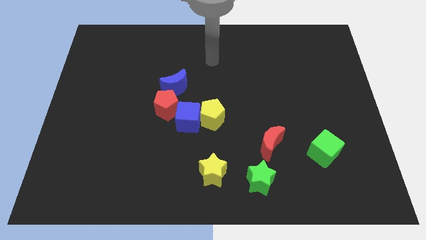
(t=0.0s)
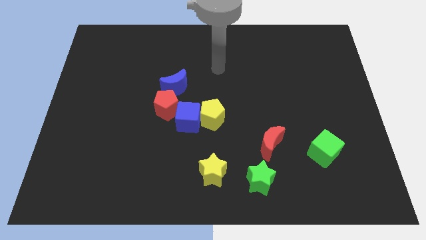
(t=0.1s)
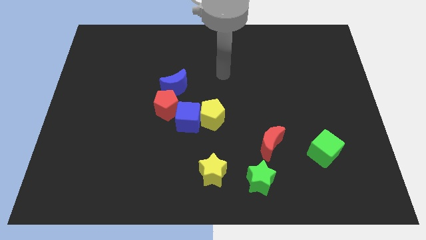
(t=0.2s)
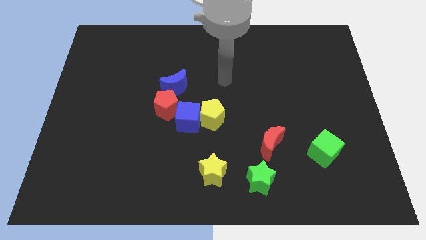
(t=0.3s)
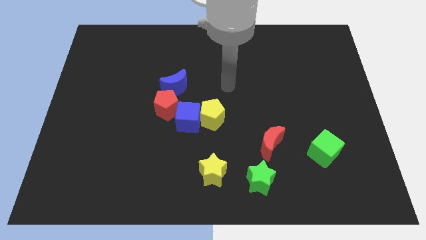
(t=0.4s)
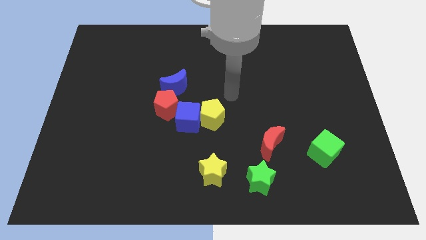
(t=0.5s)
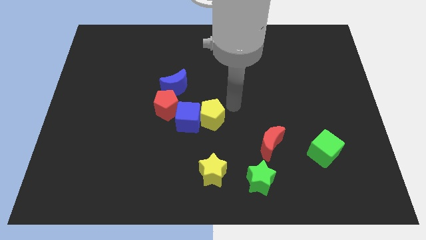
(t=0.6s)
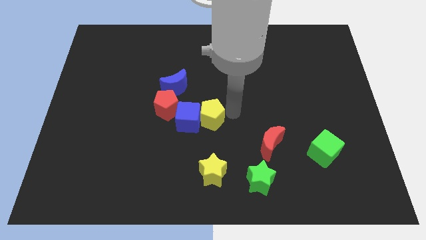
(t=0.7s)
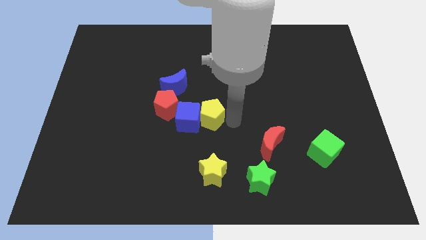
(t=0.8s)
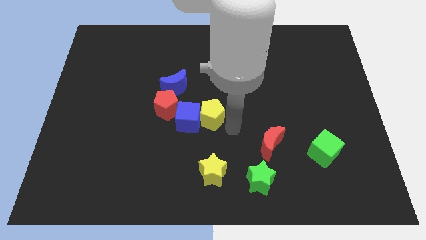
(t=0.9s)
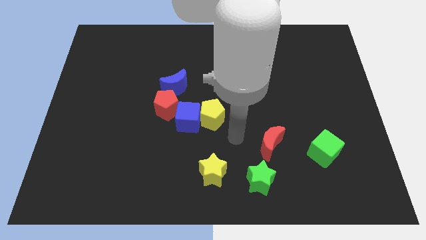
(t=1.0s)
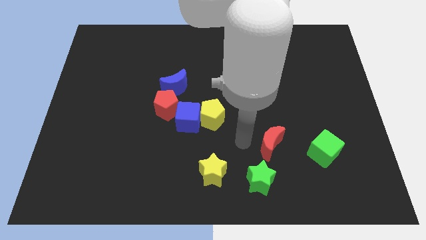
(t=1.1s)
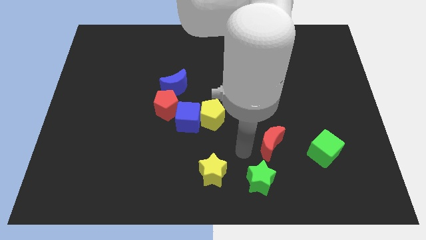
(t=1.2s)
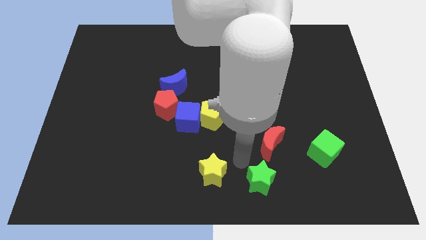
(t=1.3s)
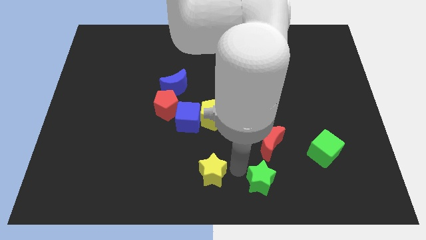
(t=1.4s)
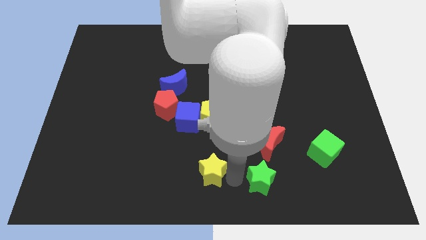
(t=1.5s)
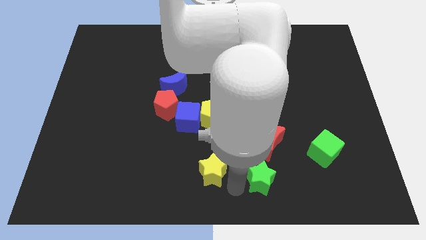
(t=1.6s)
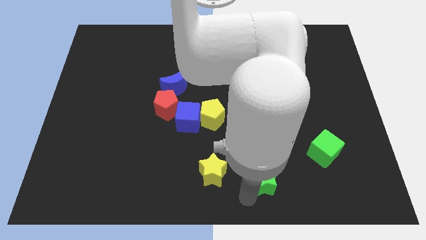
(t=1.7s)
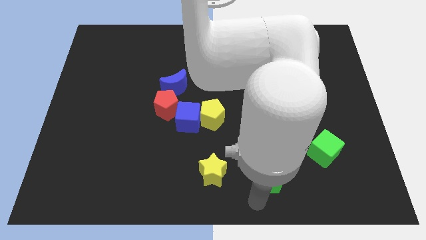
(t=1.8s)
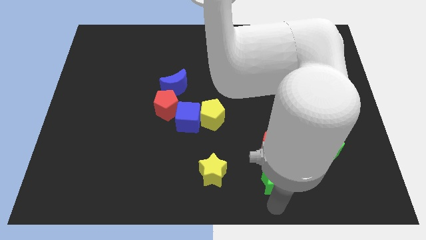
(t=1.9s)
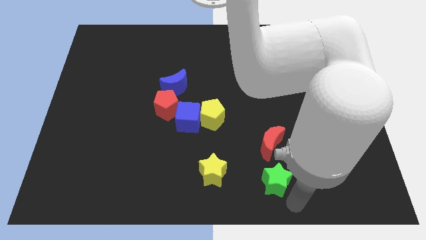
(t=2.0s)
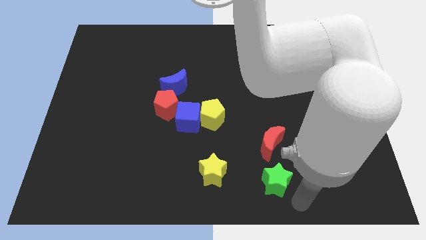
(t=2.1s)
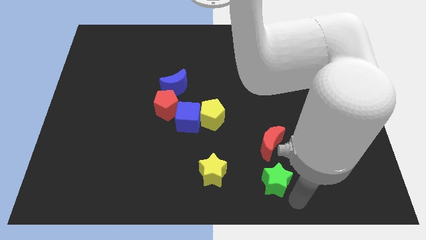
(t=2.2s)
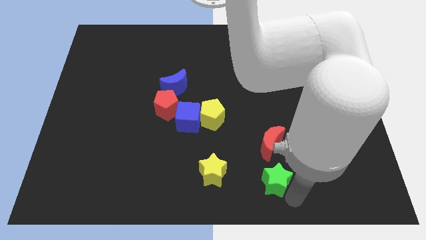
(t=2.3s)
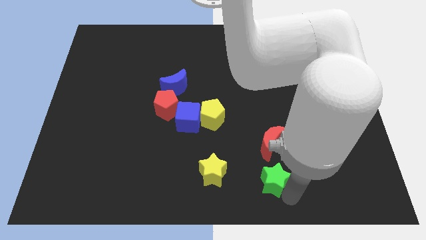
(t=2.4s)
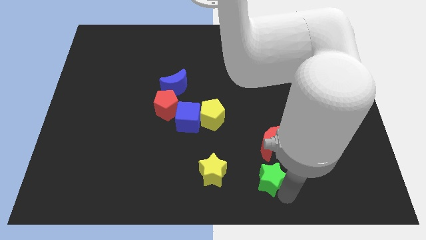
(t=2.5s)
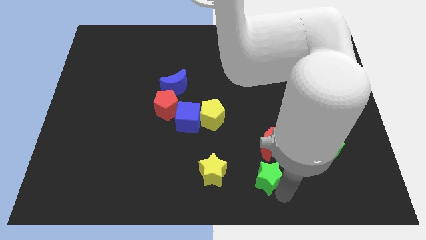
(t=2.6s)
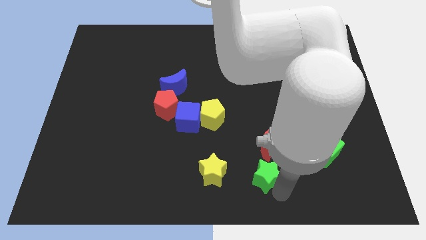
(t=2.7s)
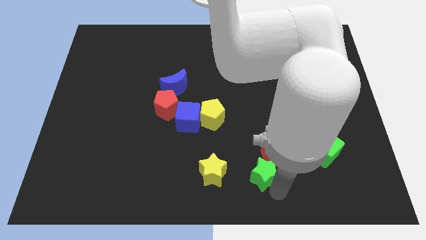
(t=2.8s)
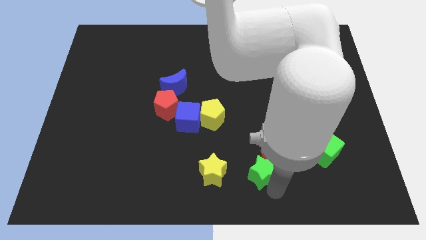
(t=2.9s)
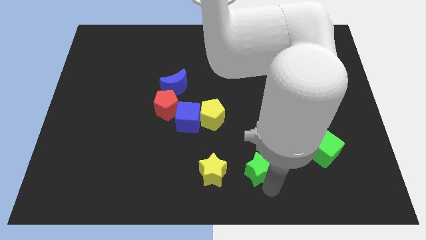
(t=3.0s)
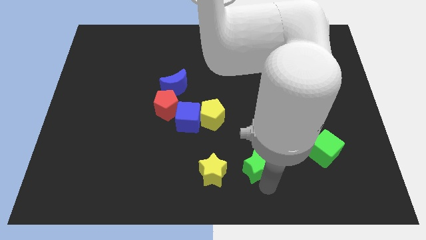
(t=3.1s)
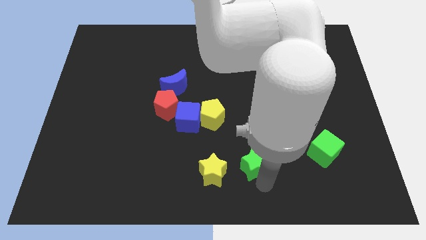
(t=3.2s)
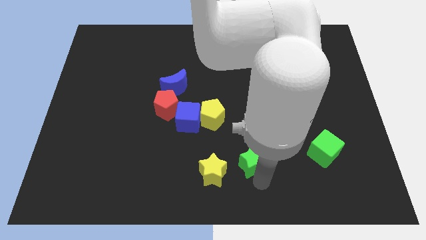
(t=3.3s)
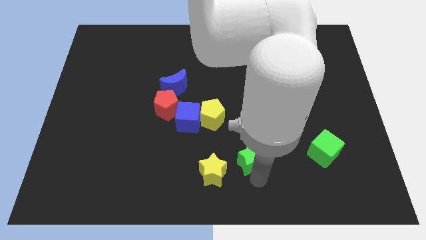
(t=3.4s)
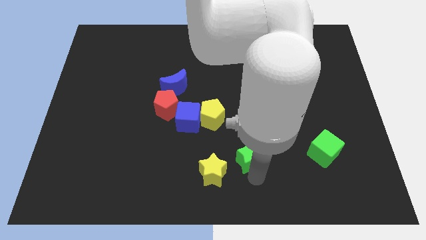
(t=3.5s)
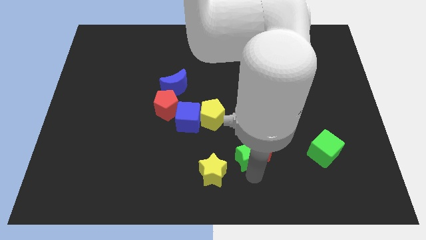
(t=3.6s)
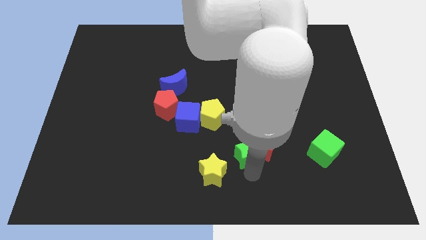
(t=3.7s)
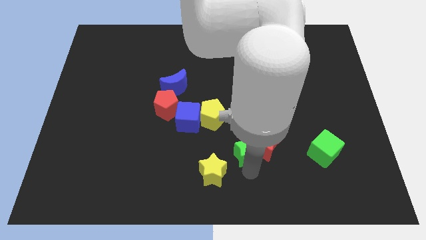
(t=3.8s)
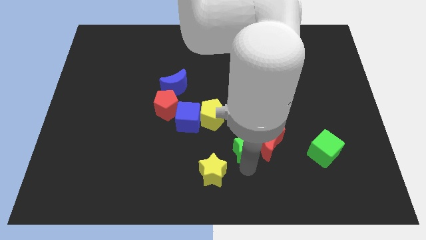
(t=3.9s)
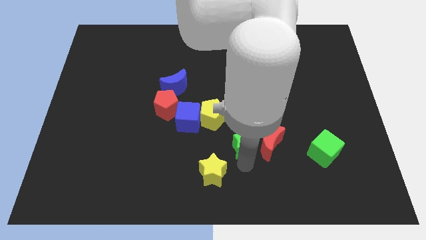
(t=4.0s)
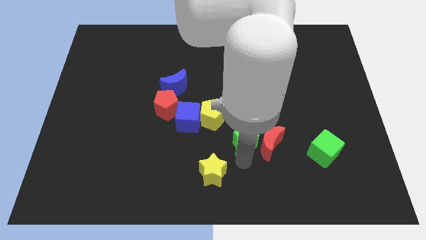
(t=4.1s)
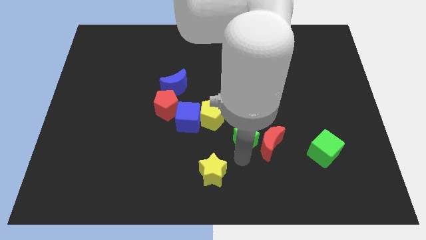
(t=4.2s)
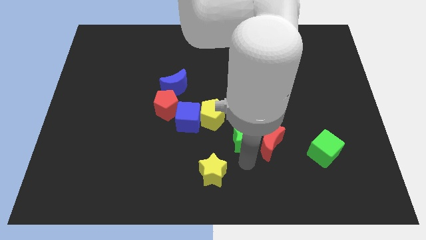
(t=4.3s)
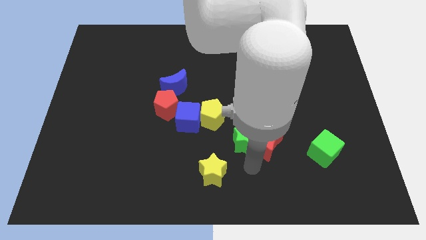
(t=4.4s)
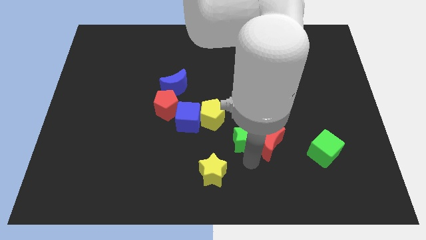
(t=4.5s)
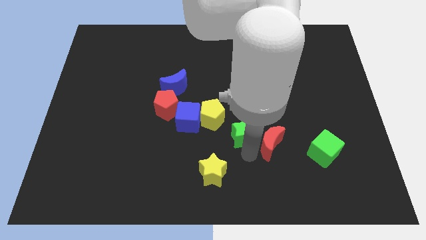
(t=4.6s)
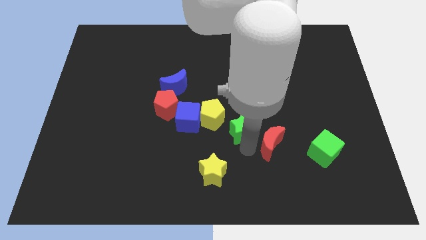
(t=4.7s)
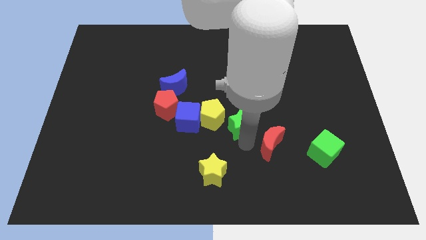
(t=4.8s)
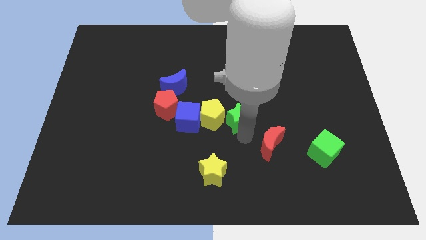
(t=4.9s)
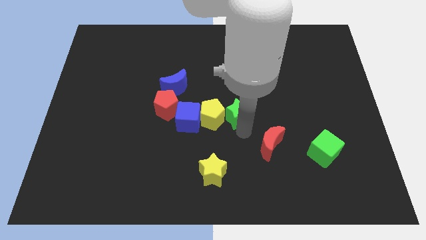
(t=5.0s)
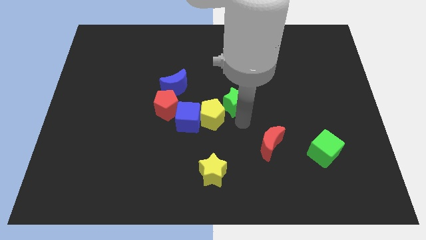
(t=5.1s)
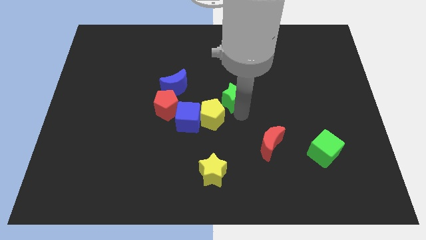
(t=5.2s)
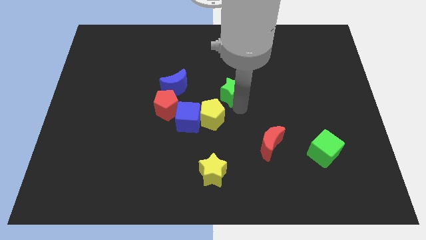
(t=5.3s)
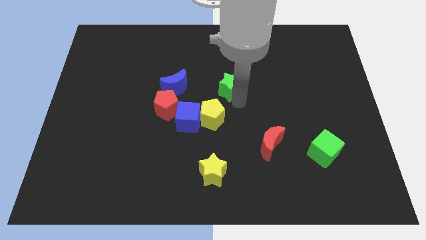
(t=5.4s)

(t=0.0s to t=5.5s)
slide the green star to the top side of the yellow pentagon

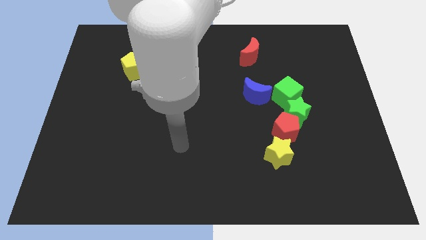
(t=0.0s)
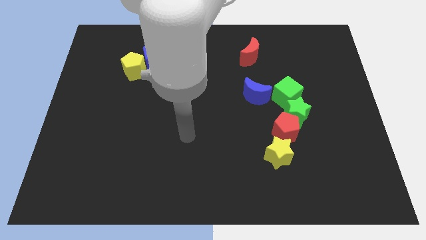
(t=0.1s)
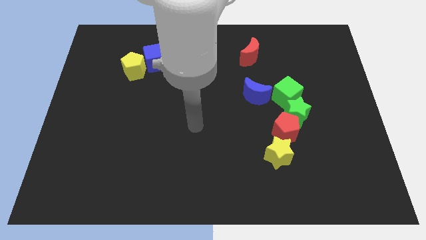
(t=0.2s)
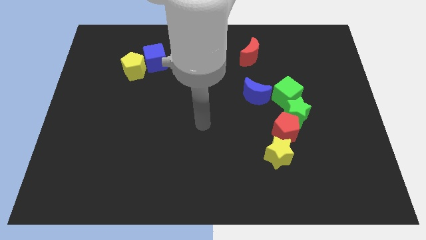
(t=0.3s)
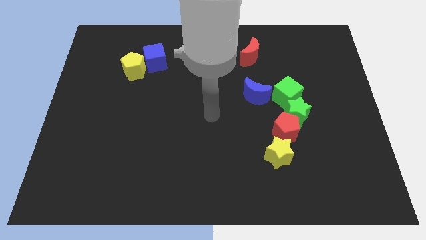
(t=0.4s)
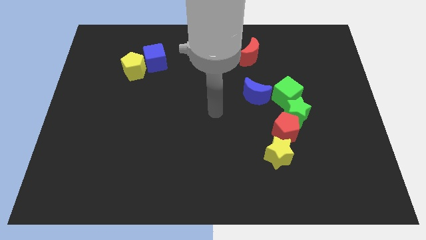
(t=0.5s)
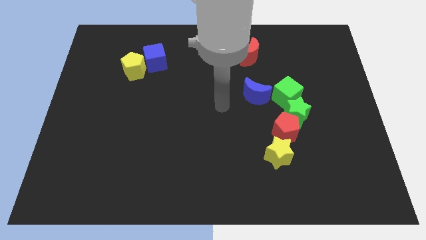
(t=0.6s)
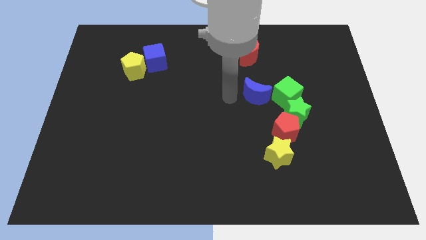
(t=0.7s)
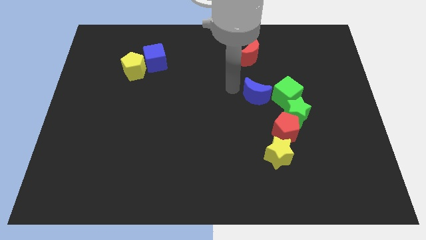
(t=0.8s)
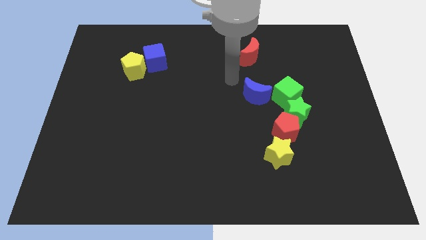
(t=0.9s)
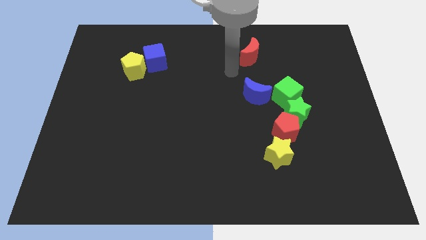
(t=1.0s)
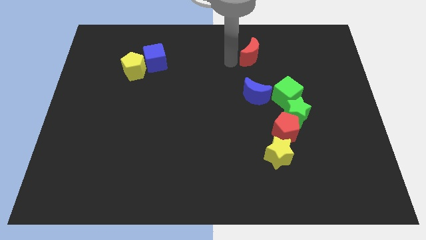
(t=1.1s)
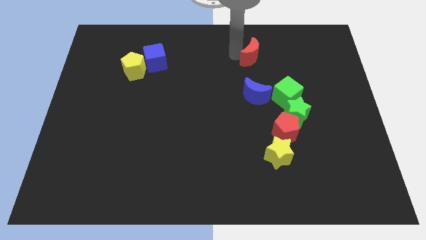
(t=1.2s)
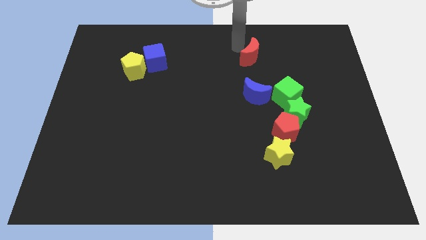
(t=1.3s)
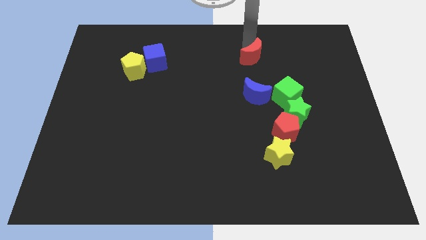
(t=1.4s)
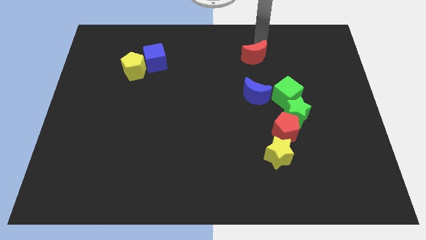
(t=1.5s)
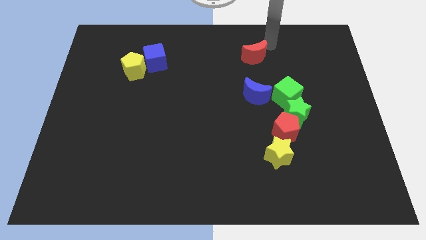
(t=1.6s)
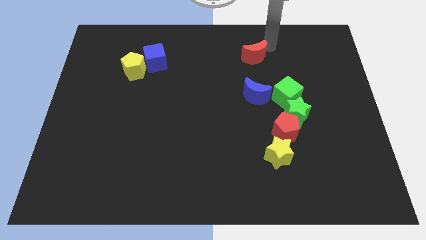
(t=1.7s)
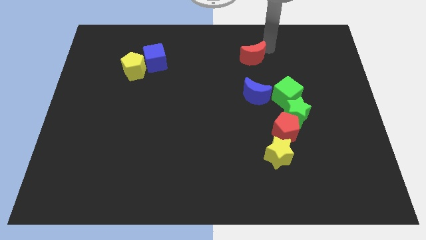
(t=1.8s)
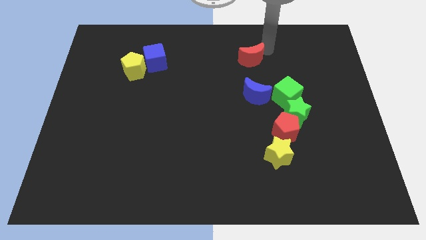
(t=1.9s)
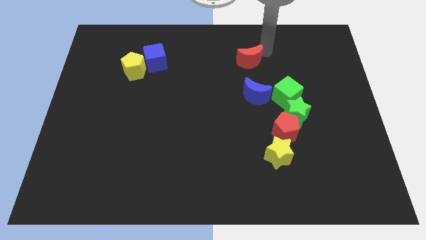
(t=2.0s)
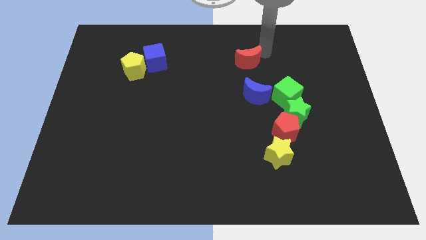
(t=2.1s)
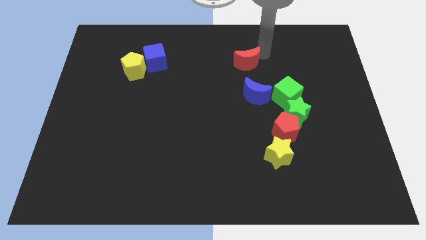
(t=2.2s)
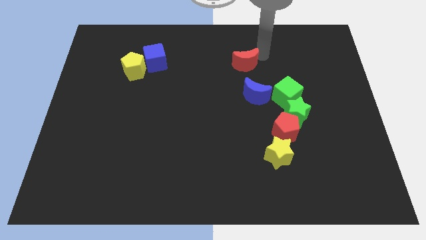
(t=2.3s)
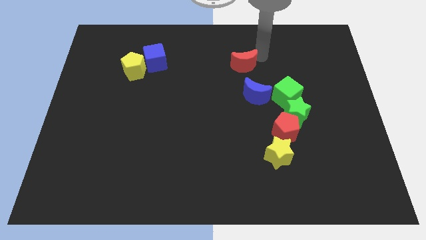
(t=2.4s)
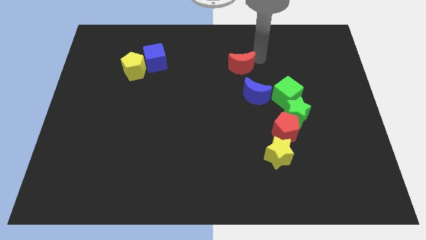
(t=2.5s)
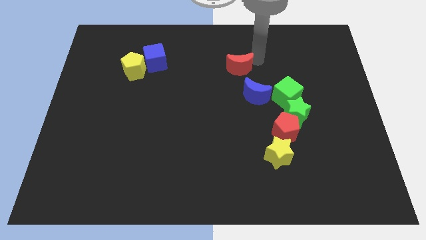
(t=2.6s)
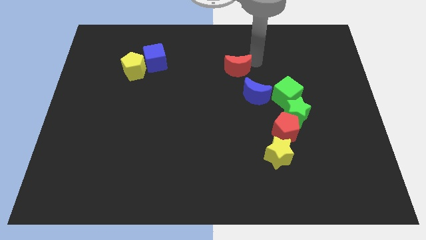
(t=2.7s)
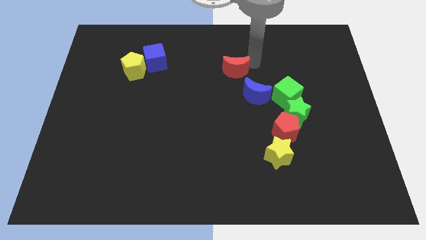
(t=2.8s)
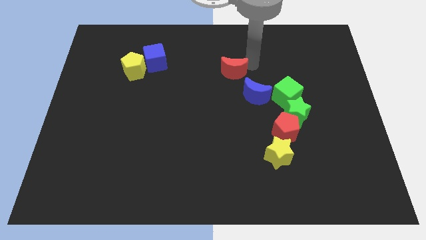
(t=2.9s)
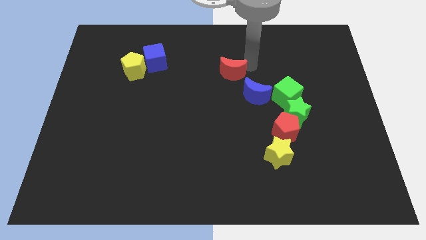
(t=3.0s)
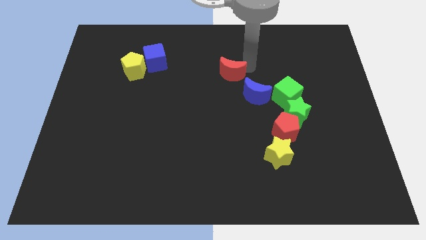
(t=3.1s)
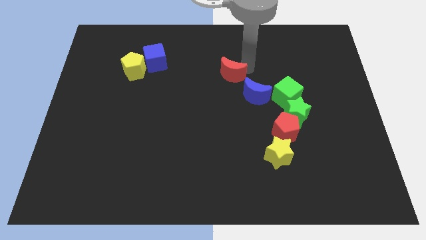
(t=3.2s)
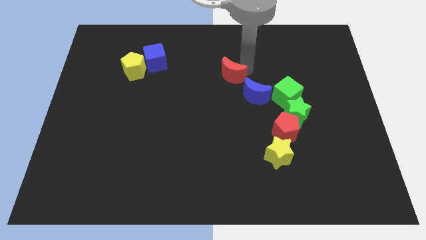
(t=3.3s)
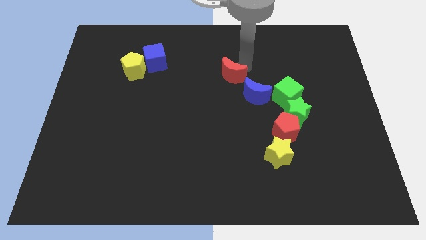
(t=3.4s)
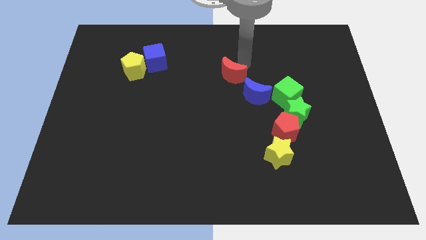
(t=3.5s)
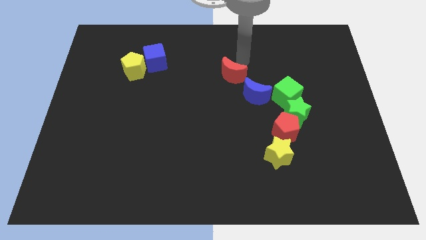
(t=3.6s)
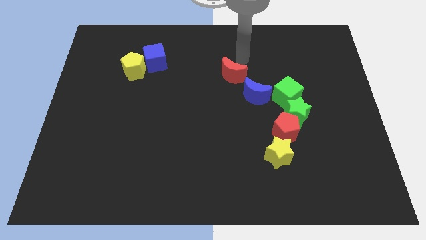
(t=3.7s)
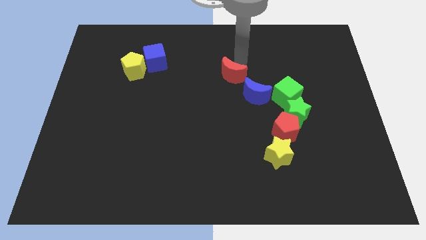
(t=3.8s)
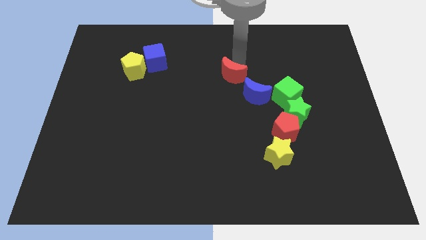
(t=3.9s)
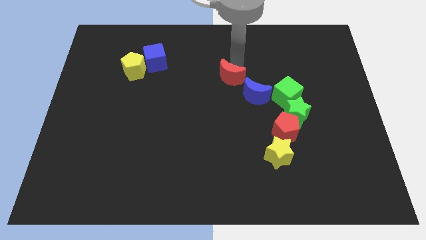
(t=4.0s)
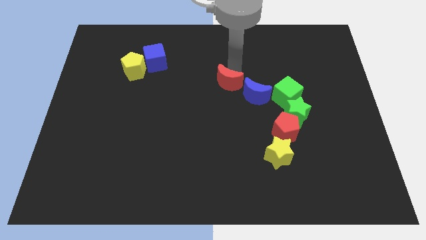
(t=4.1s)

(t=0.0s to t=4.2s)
move the red moon to the left side of the blue moon
